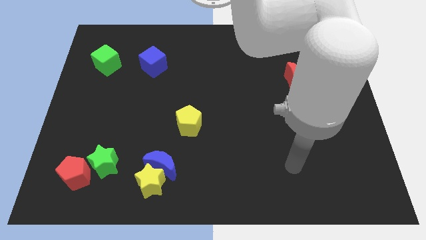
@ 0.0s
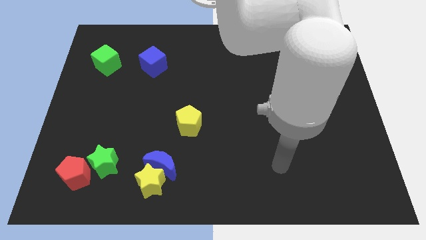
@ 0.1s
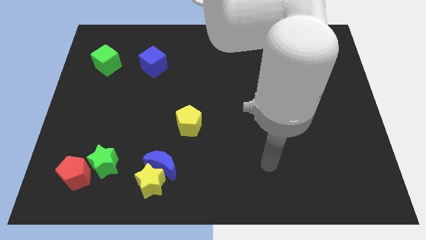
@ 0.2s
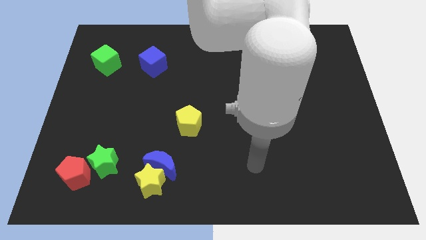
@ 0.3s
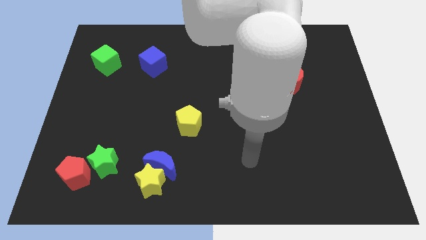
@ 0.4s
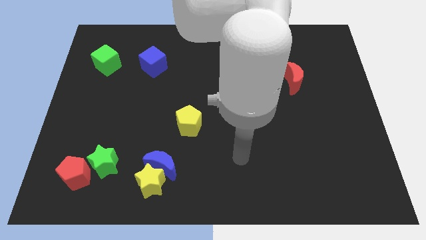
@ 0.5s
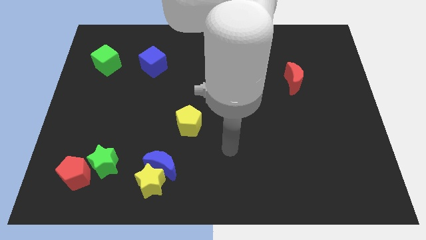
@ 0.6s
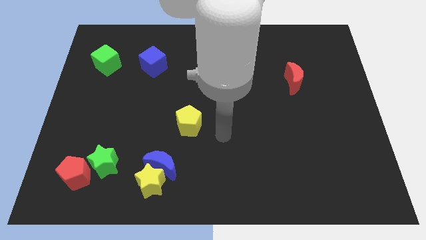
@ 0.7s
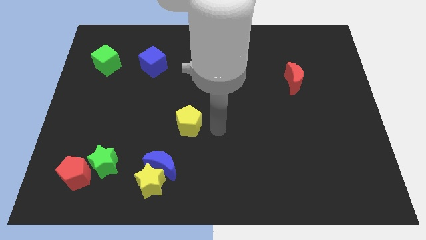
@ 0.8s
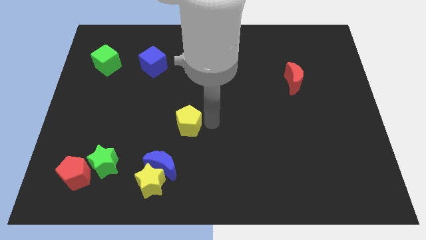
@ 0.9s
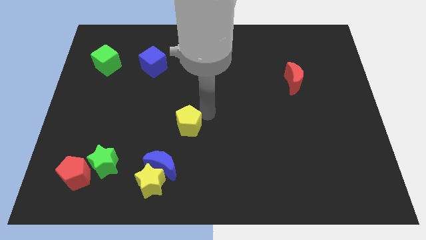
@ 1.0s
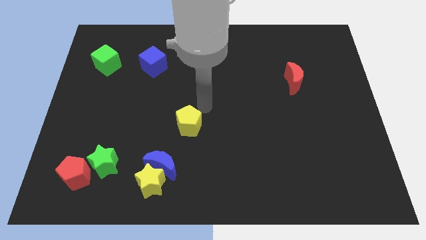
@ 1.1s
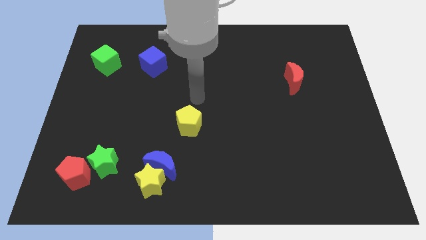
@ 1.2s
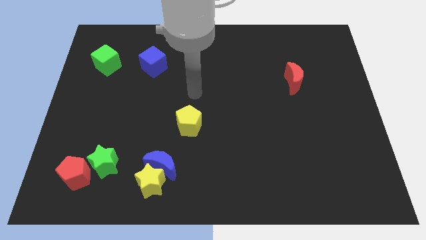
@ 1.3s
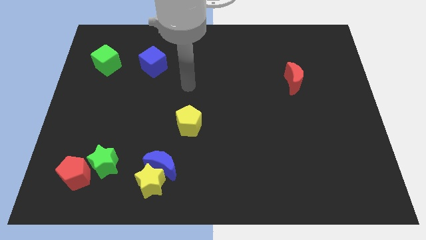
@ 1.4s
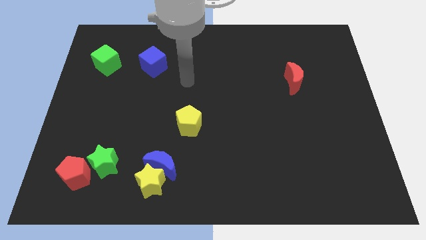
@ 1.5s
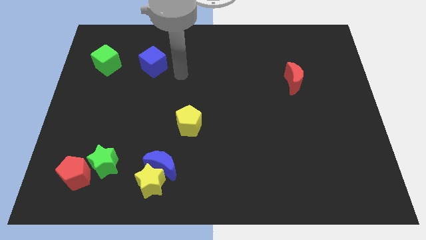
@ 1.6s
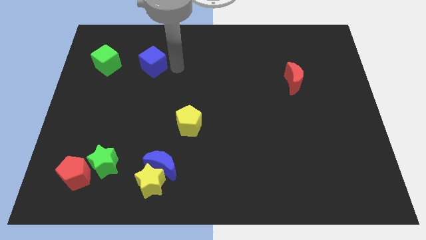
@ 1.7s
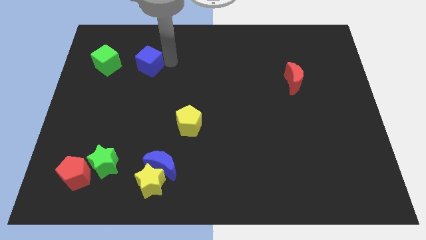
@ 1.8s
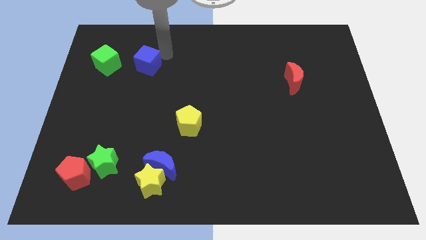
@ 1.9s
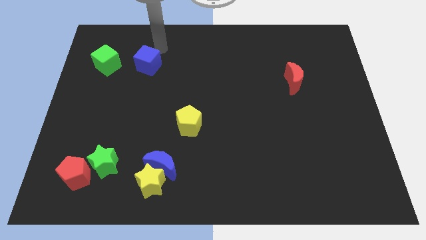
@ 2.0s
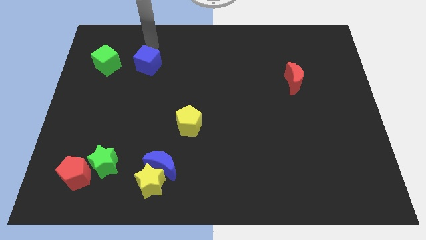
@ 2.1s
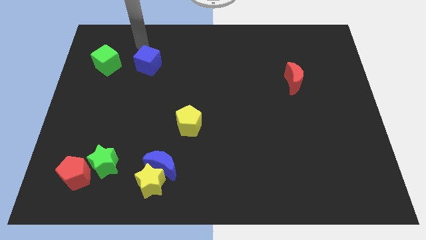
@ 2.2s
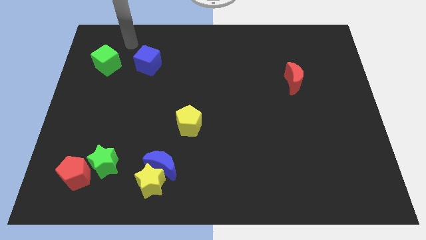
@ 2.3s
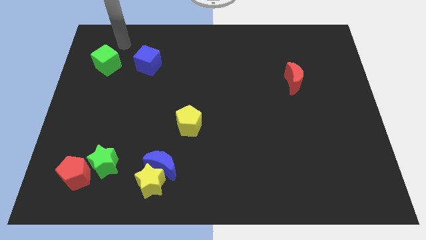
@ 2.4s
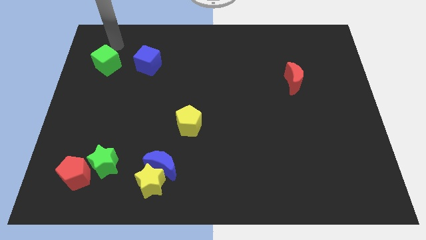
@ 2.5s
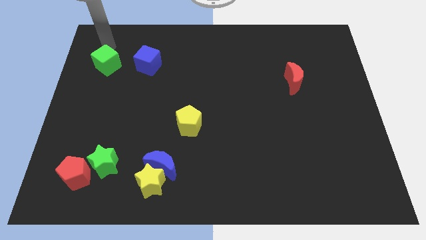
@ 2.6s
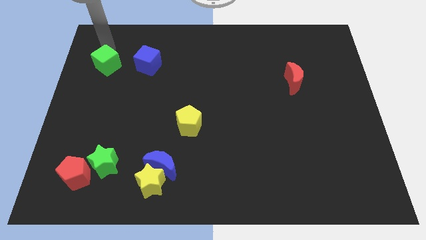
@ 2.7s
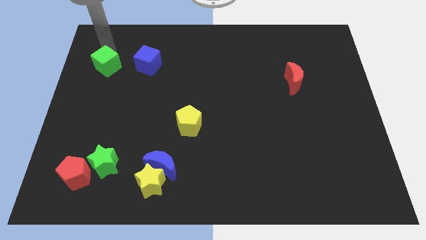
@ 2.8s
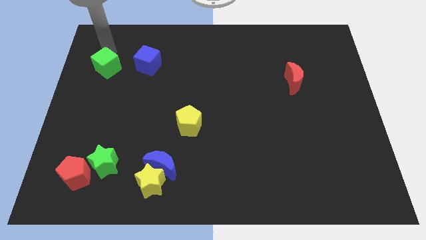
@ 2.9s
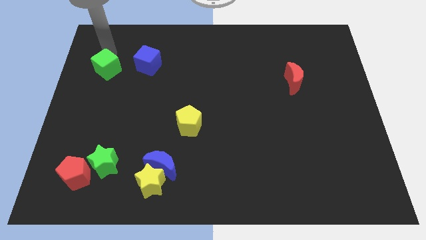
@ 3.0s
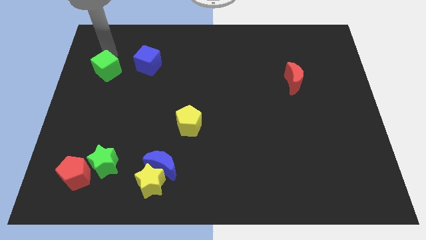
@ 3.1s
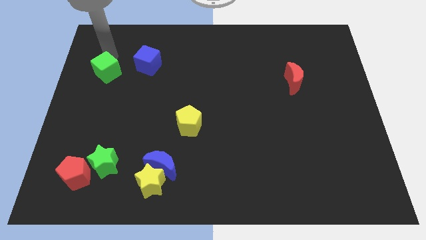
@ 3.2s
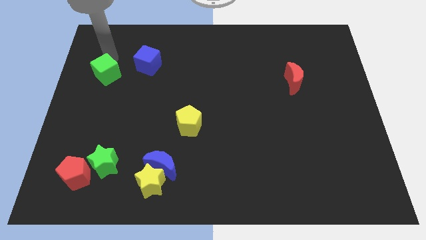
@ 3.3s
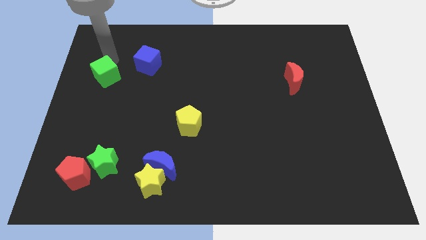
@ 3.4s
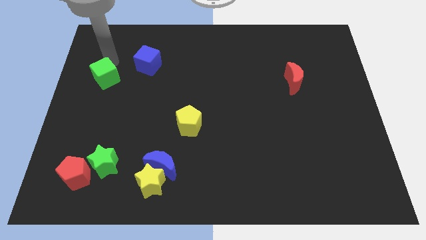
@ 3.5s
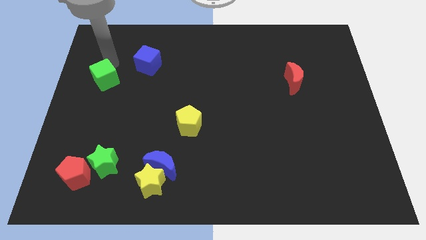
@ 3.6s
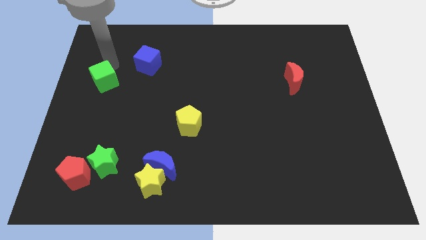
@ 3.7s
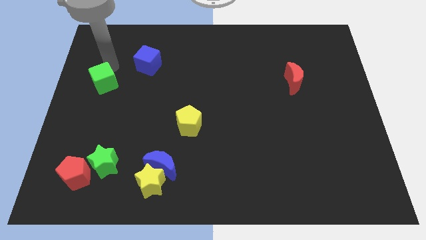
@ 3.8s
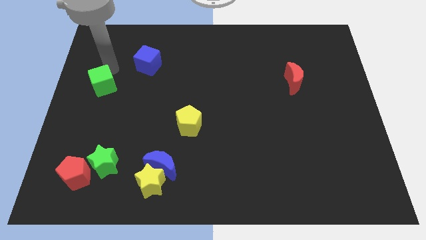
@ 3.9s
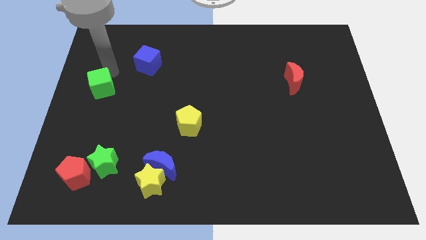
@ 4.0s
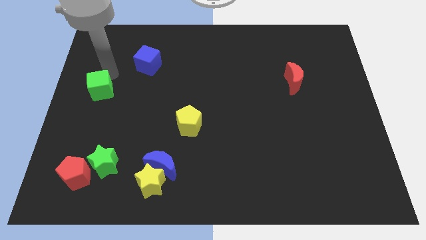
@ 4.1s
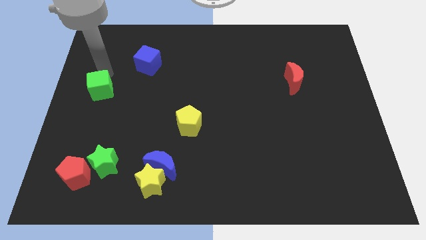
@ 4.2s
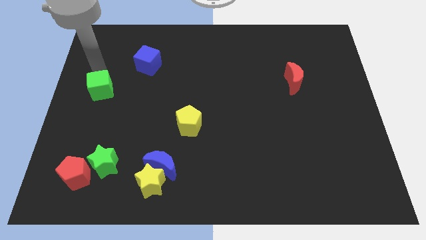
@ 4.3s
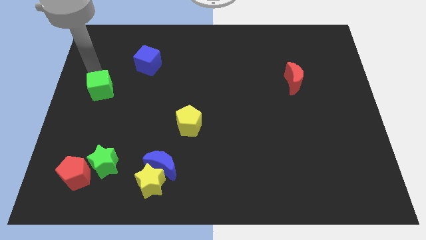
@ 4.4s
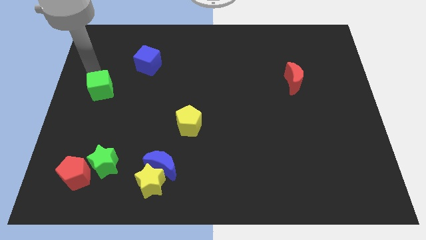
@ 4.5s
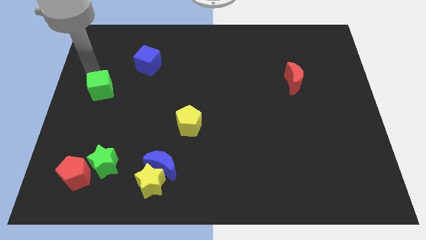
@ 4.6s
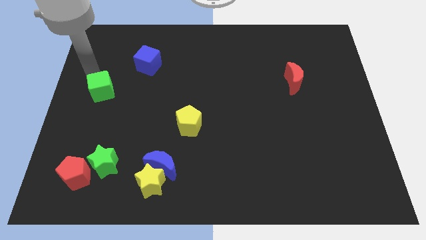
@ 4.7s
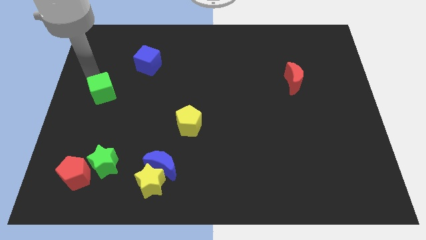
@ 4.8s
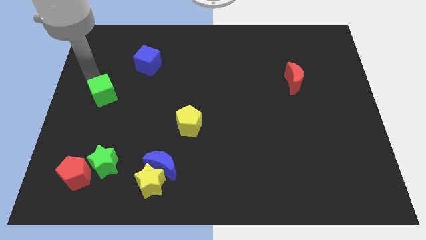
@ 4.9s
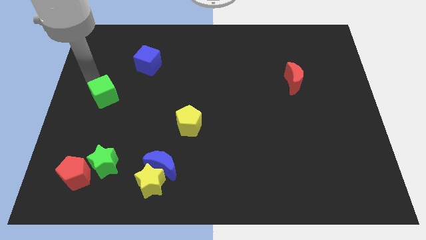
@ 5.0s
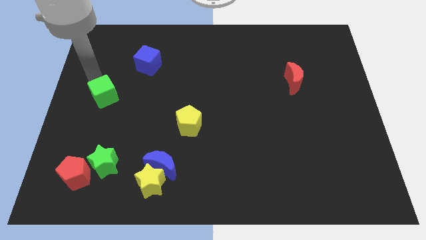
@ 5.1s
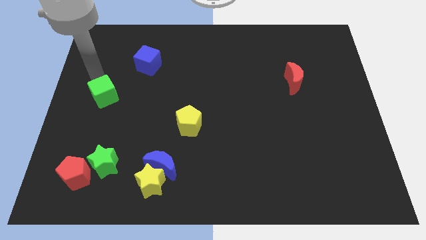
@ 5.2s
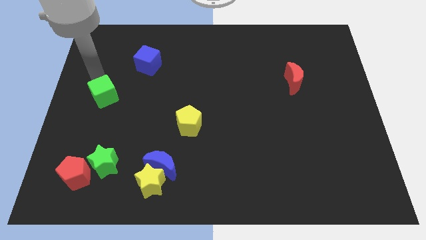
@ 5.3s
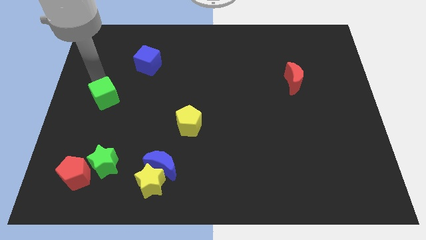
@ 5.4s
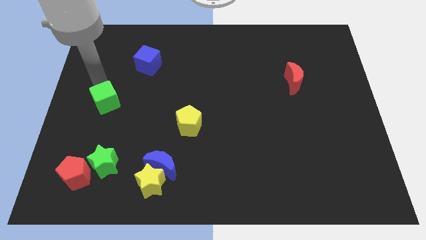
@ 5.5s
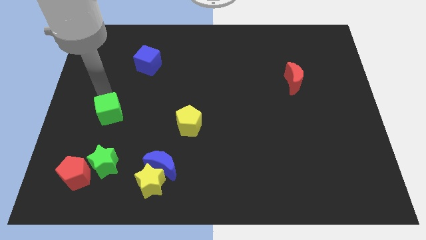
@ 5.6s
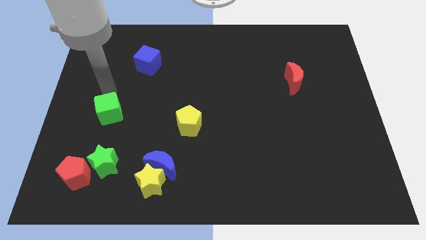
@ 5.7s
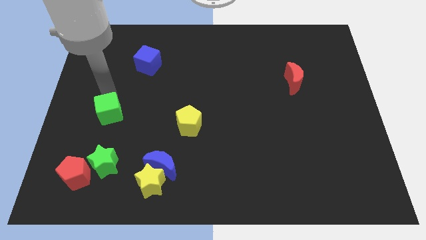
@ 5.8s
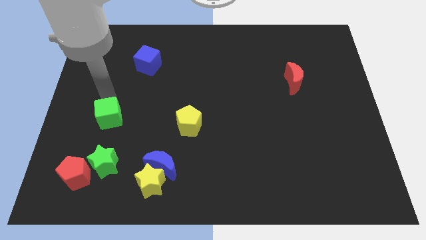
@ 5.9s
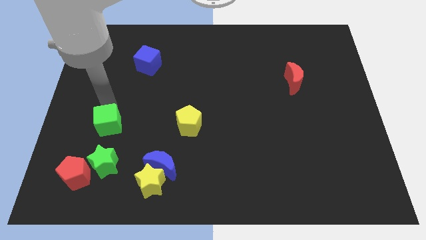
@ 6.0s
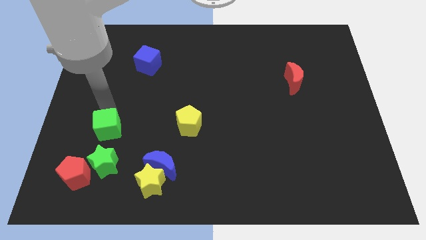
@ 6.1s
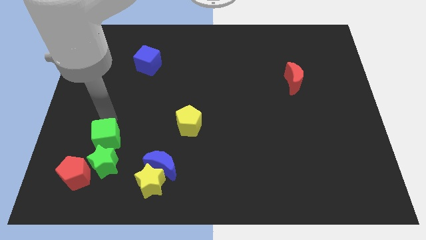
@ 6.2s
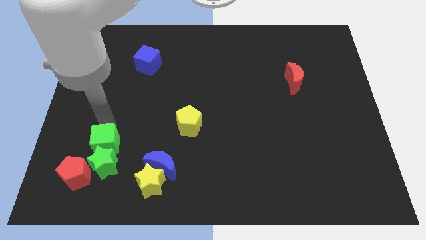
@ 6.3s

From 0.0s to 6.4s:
slide the green cube close to the green star

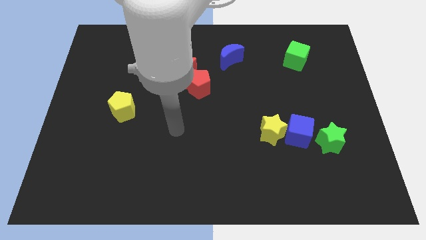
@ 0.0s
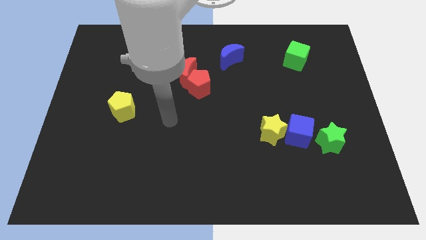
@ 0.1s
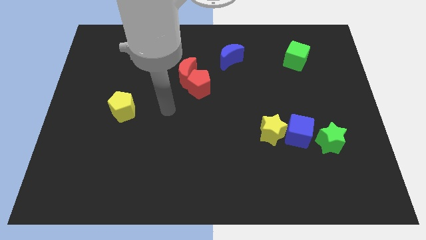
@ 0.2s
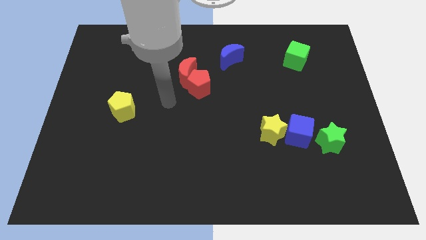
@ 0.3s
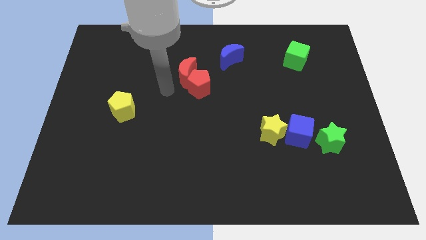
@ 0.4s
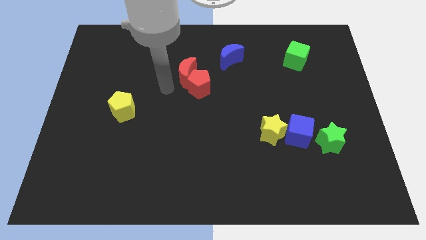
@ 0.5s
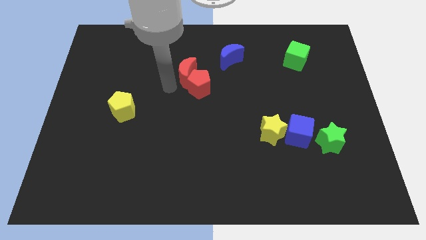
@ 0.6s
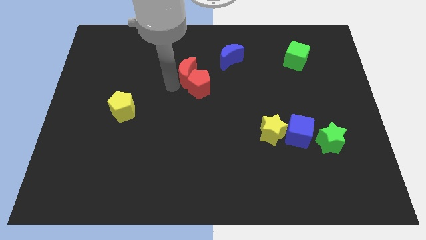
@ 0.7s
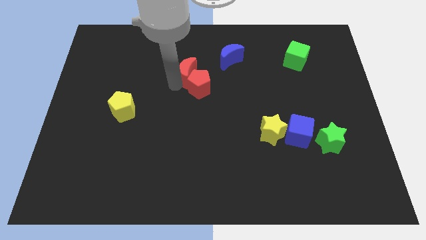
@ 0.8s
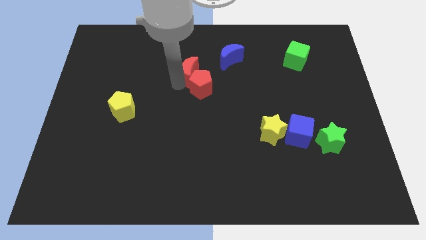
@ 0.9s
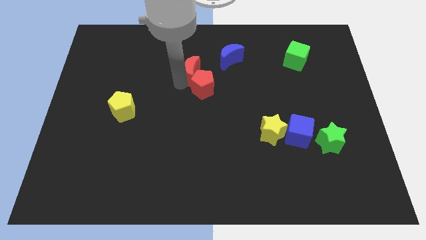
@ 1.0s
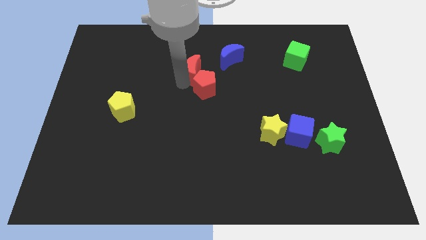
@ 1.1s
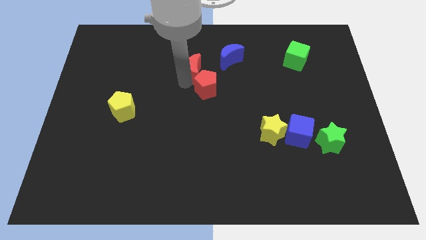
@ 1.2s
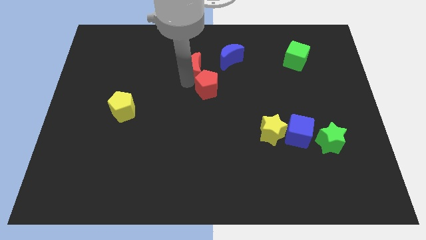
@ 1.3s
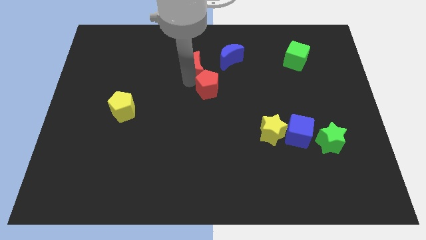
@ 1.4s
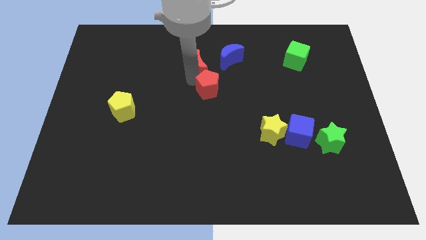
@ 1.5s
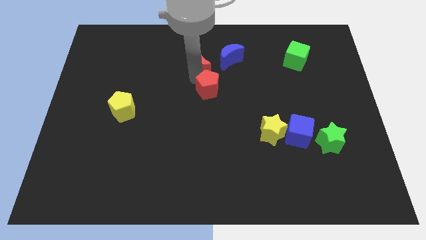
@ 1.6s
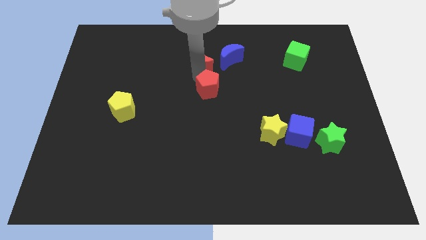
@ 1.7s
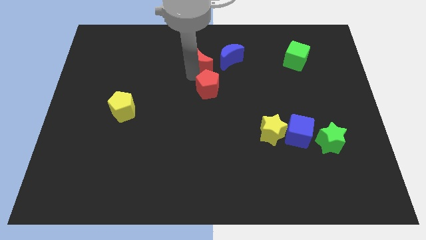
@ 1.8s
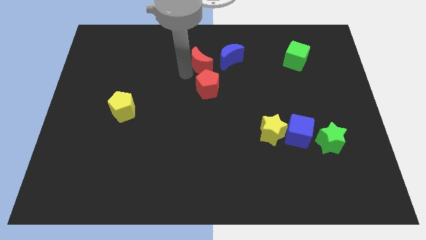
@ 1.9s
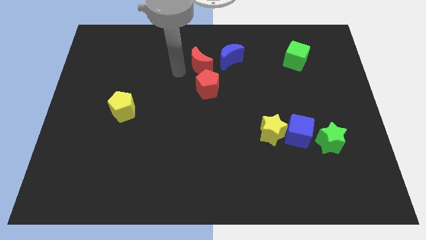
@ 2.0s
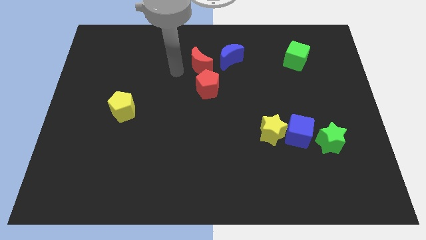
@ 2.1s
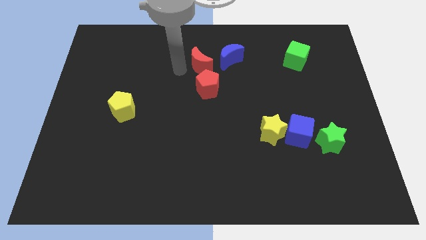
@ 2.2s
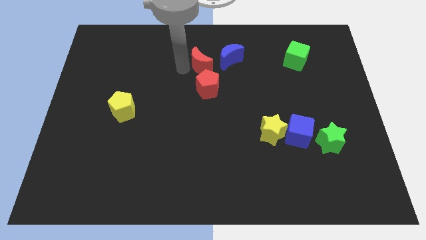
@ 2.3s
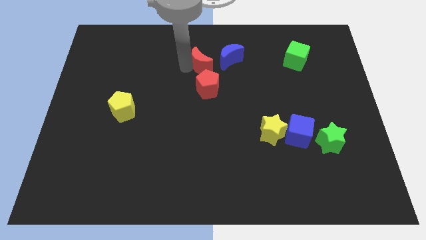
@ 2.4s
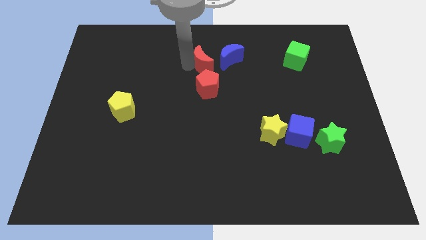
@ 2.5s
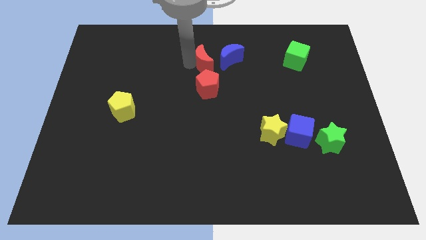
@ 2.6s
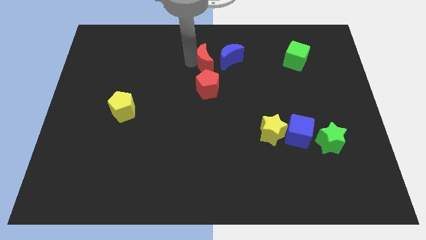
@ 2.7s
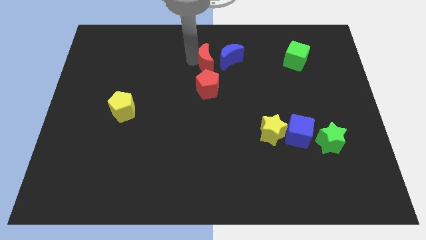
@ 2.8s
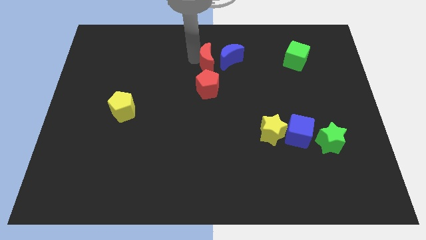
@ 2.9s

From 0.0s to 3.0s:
push the red moon close to the blue moon
